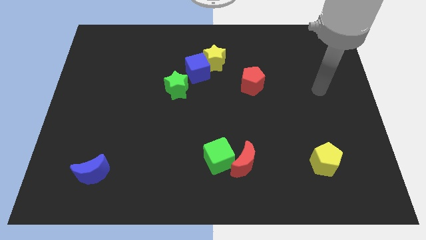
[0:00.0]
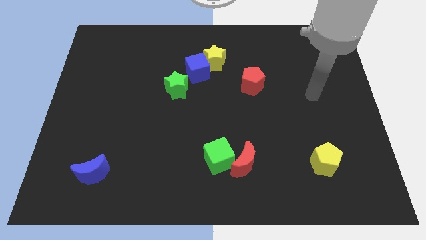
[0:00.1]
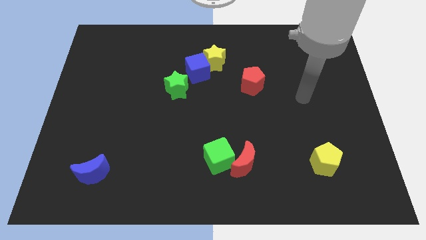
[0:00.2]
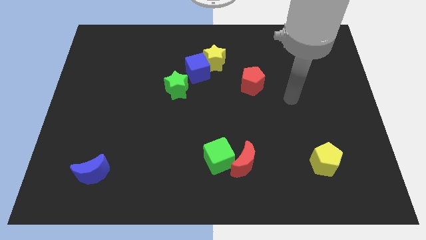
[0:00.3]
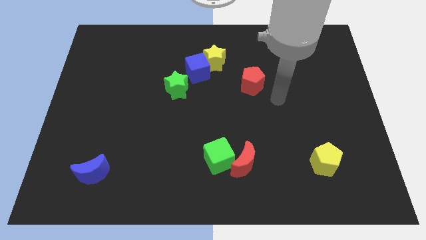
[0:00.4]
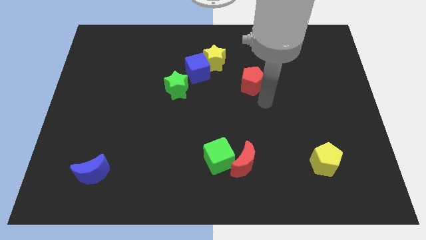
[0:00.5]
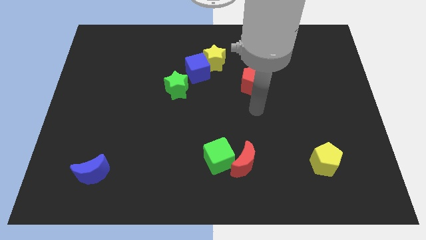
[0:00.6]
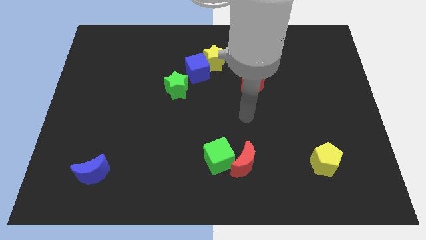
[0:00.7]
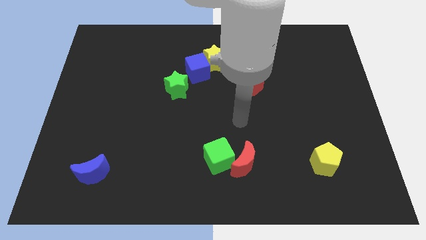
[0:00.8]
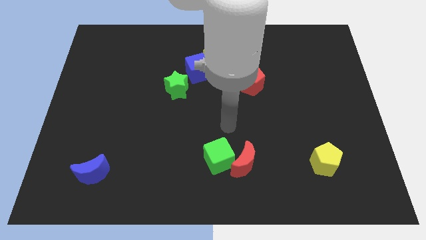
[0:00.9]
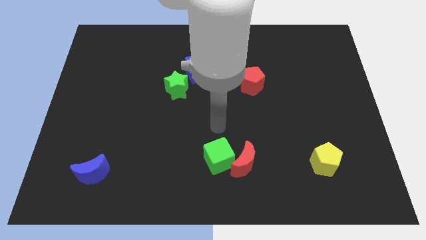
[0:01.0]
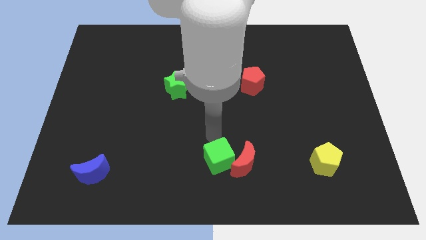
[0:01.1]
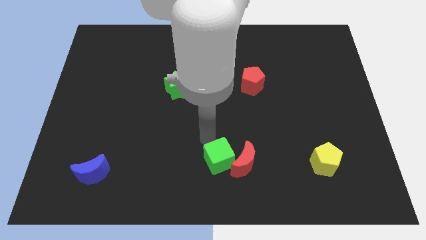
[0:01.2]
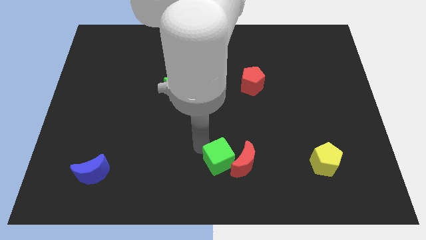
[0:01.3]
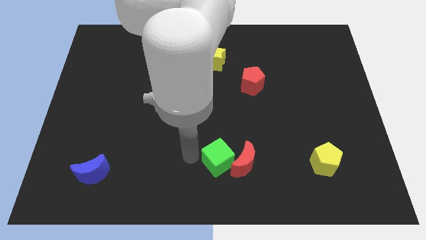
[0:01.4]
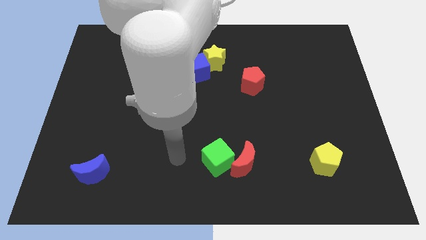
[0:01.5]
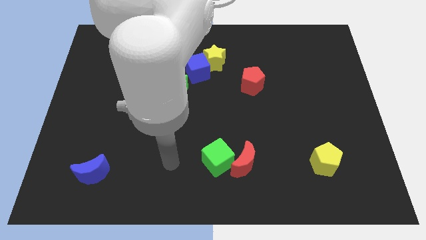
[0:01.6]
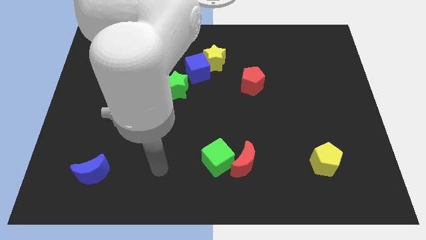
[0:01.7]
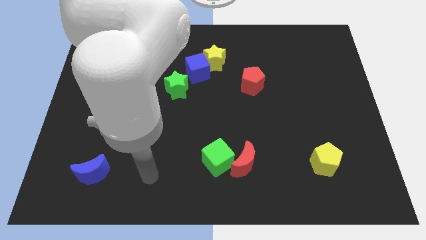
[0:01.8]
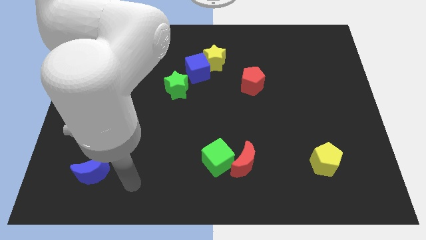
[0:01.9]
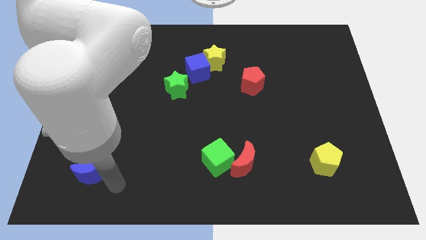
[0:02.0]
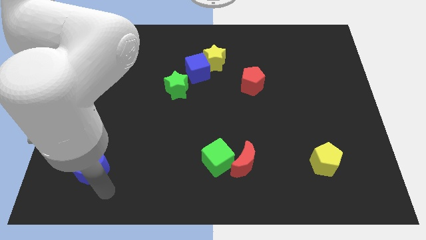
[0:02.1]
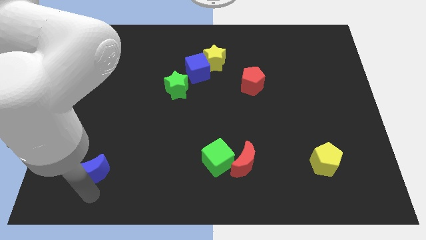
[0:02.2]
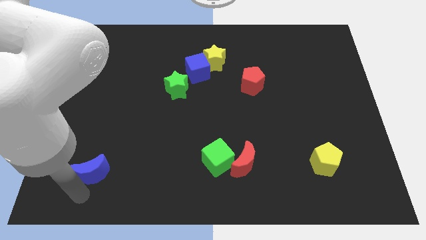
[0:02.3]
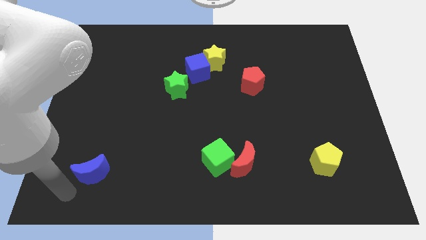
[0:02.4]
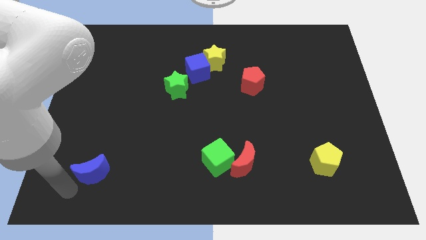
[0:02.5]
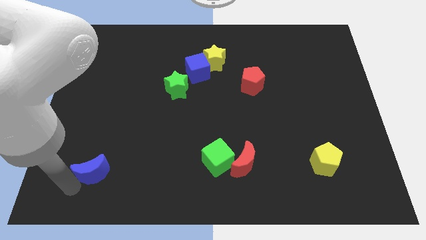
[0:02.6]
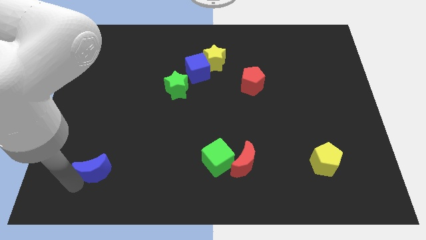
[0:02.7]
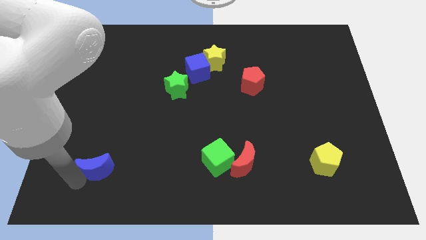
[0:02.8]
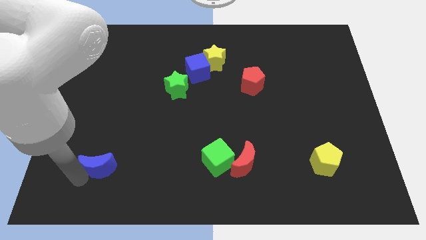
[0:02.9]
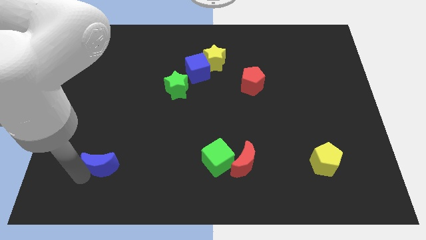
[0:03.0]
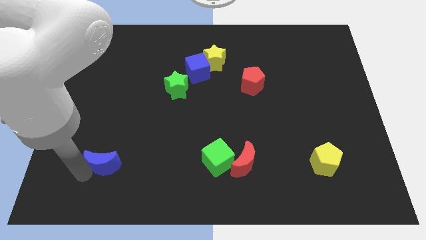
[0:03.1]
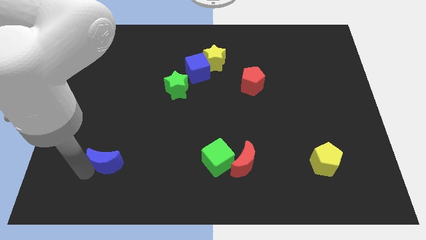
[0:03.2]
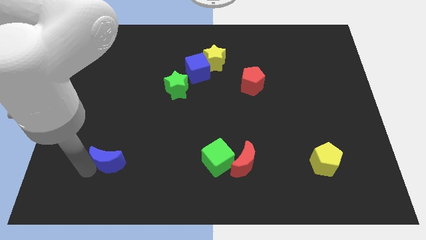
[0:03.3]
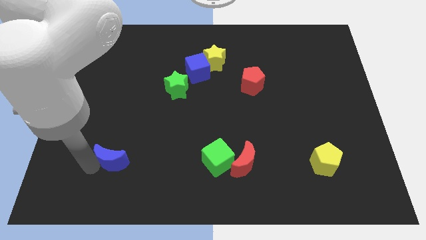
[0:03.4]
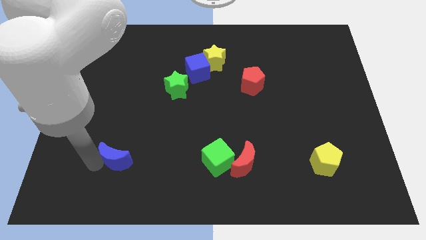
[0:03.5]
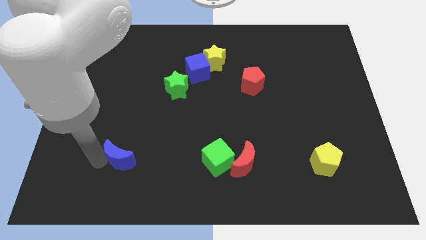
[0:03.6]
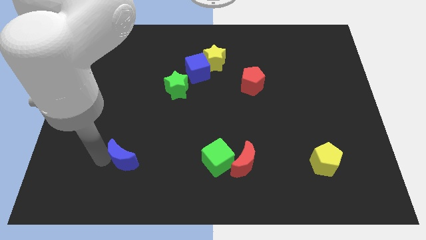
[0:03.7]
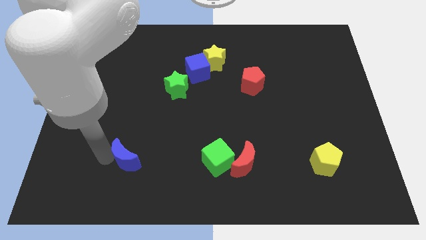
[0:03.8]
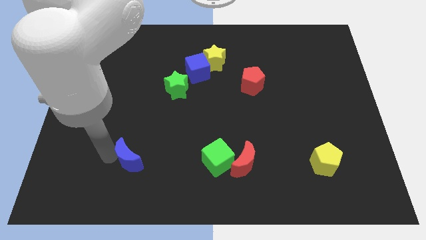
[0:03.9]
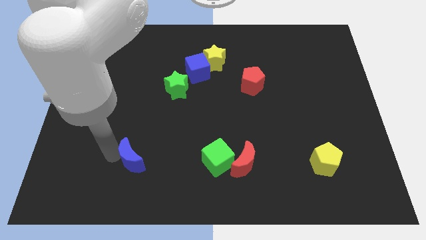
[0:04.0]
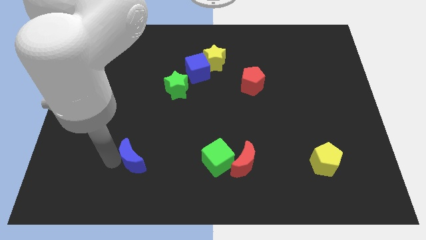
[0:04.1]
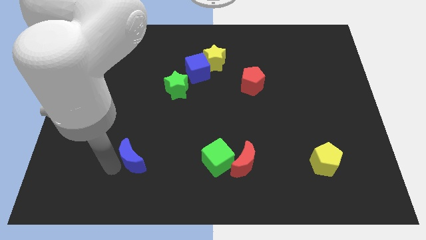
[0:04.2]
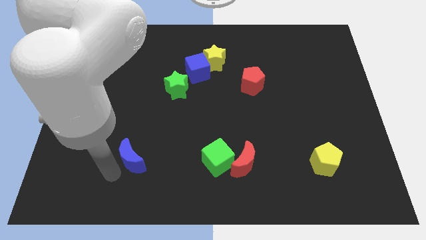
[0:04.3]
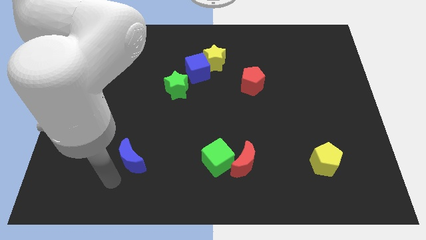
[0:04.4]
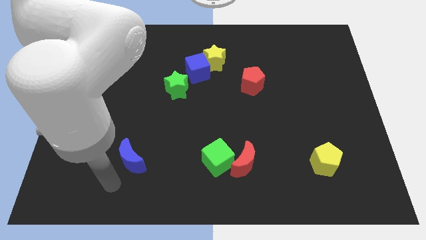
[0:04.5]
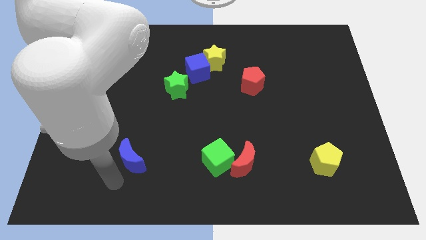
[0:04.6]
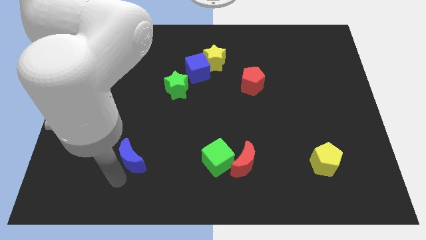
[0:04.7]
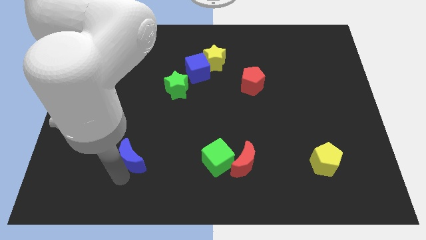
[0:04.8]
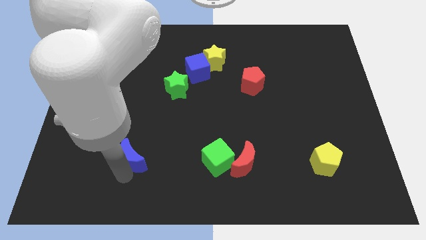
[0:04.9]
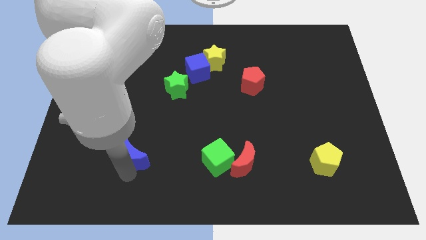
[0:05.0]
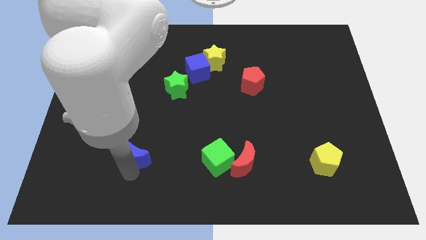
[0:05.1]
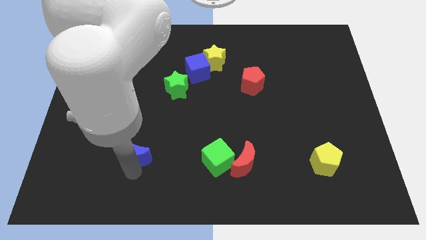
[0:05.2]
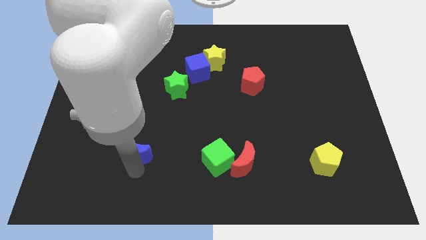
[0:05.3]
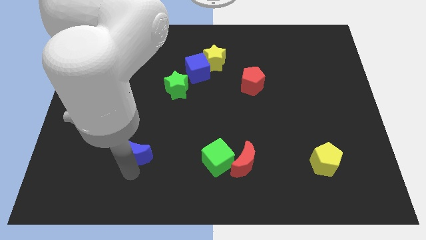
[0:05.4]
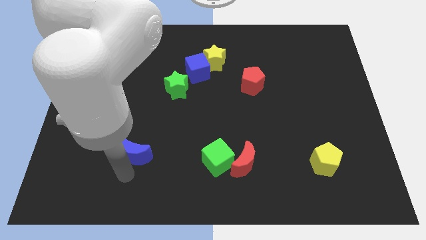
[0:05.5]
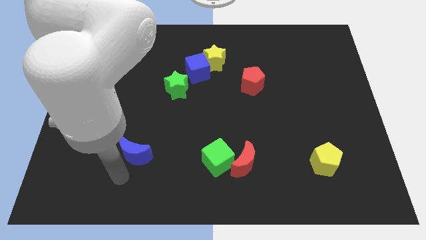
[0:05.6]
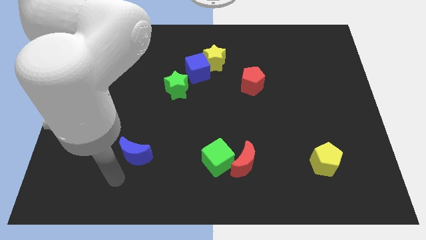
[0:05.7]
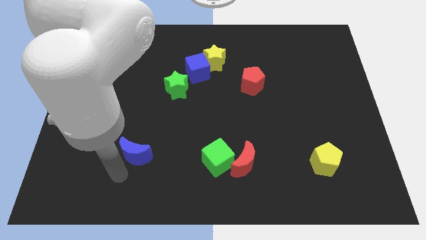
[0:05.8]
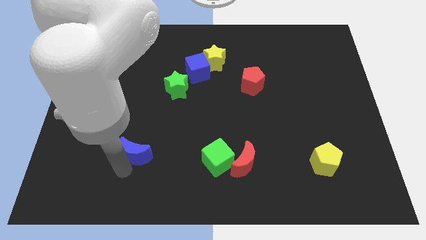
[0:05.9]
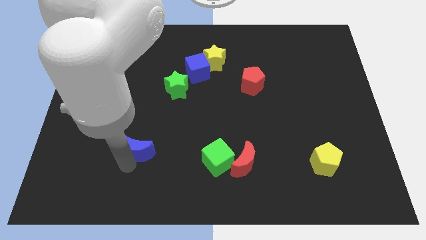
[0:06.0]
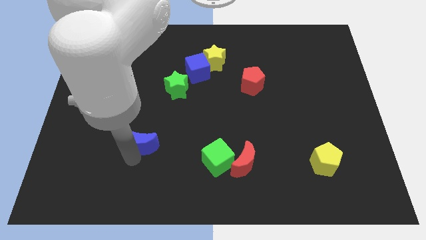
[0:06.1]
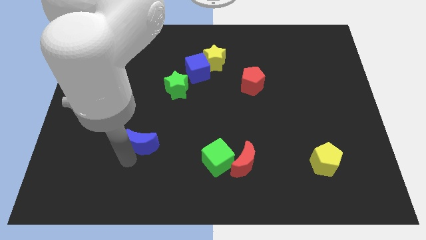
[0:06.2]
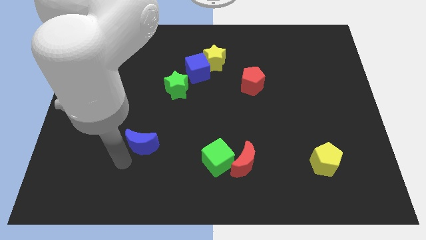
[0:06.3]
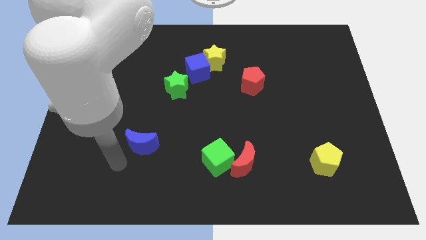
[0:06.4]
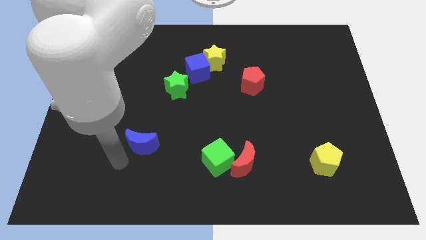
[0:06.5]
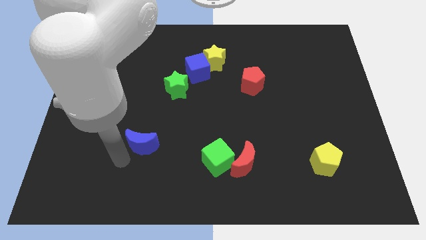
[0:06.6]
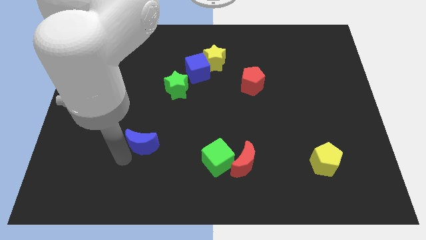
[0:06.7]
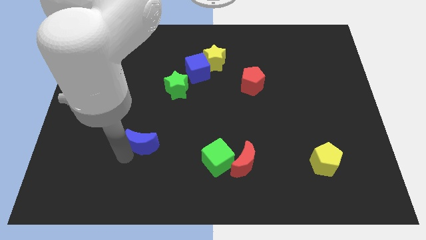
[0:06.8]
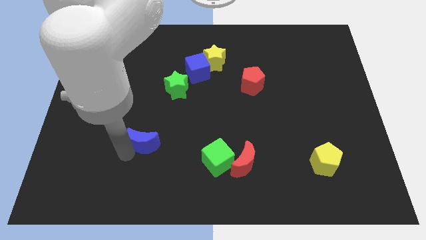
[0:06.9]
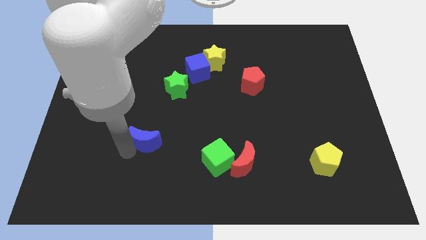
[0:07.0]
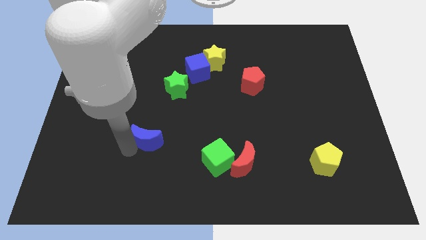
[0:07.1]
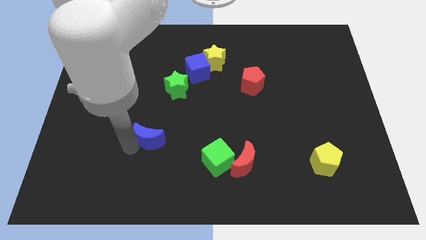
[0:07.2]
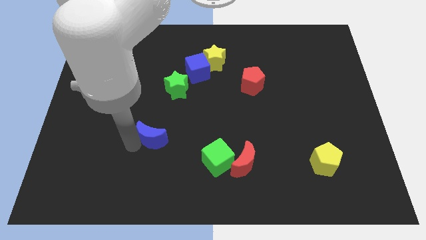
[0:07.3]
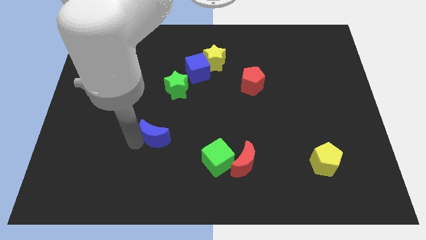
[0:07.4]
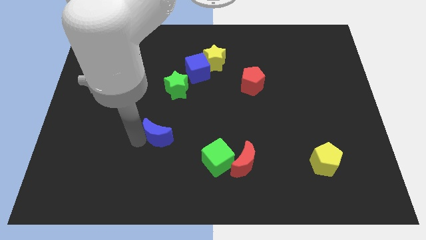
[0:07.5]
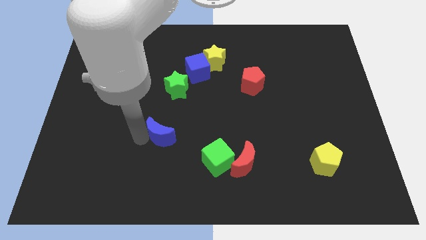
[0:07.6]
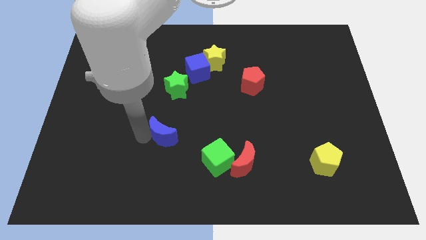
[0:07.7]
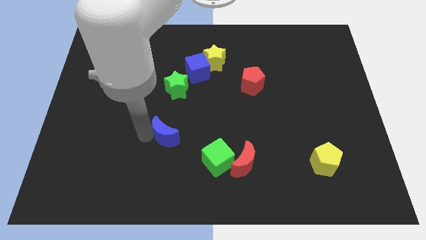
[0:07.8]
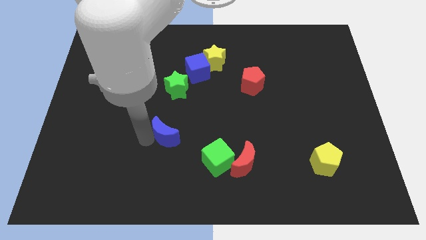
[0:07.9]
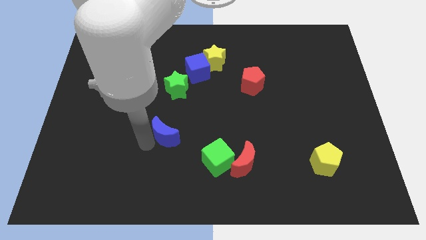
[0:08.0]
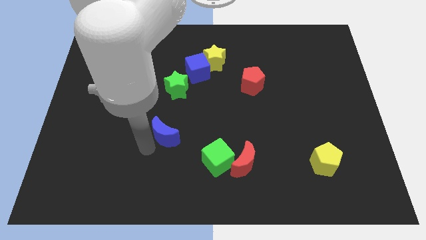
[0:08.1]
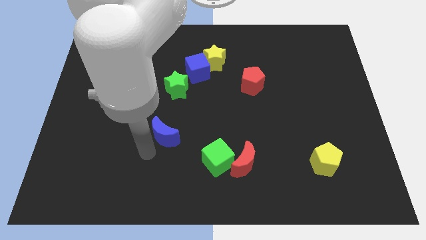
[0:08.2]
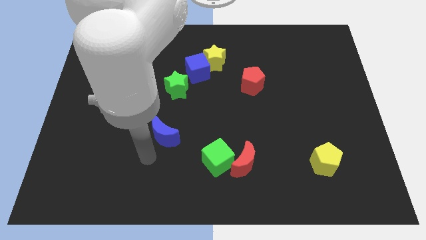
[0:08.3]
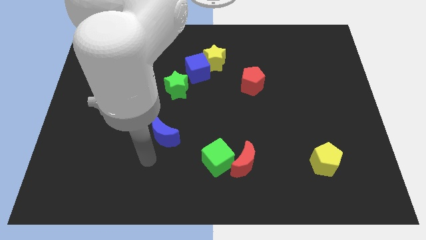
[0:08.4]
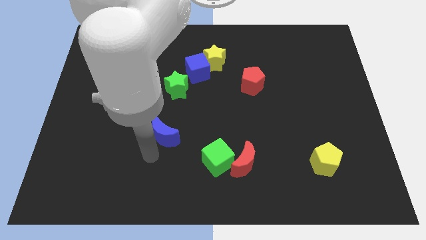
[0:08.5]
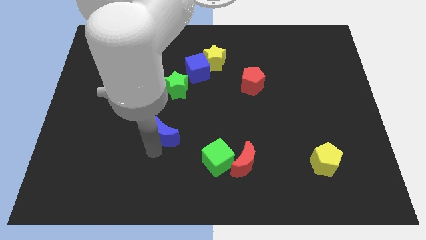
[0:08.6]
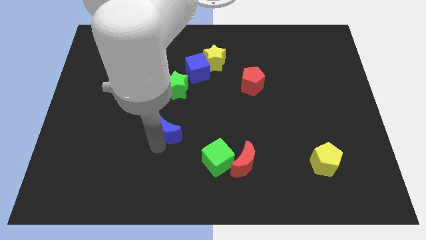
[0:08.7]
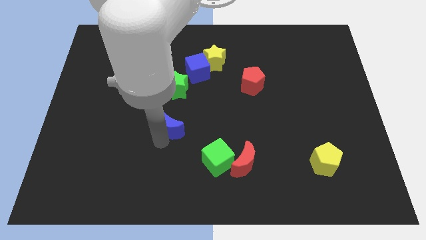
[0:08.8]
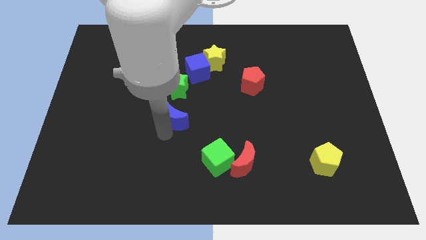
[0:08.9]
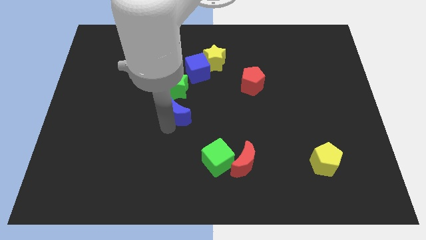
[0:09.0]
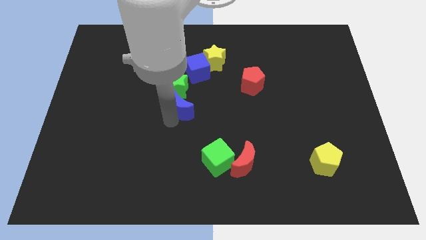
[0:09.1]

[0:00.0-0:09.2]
slide the blue moon below the blue cube
